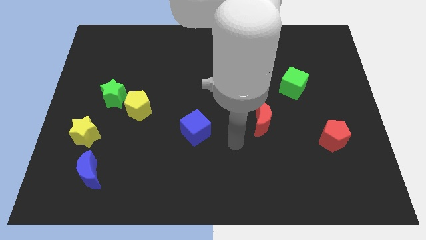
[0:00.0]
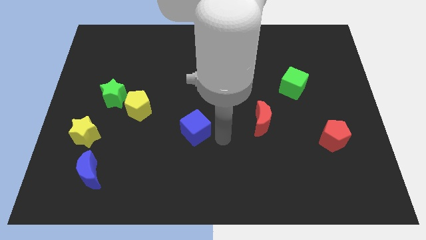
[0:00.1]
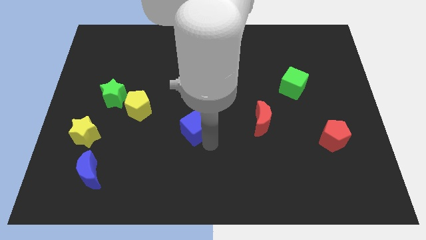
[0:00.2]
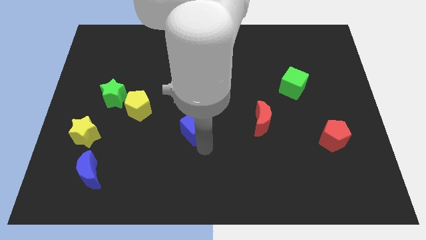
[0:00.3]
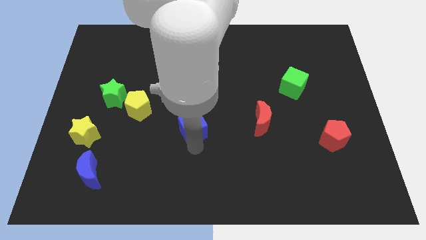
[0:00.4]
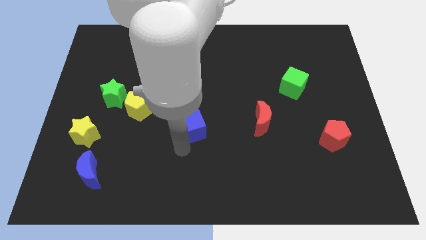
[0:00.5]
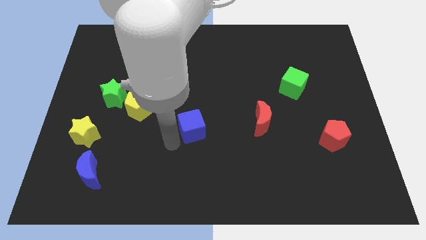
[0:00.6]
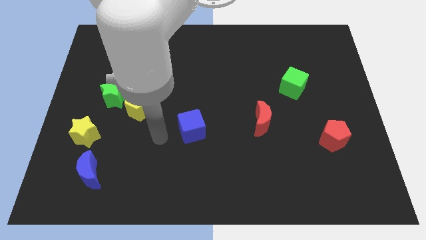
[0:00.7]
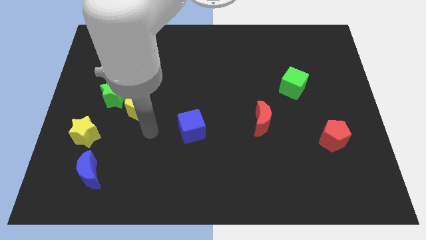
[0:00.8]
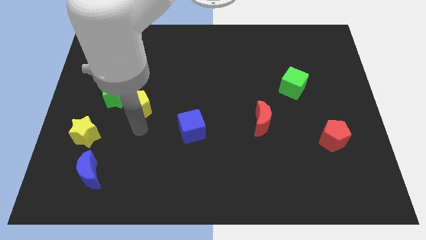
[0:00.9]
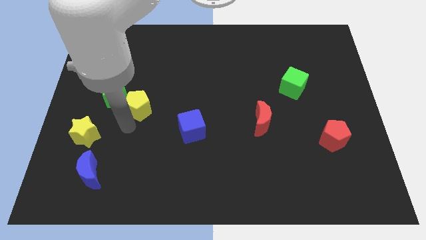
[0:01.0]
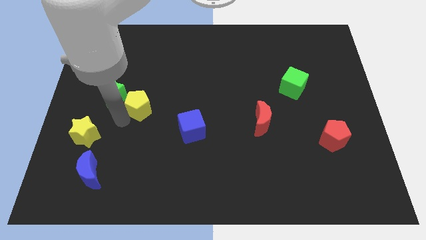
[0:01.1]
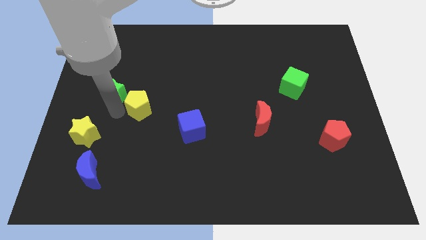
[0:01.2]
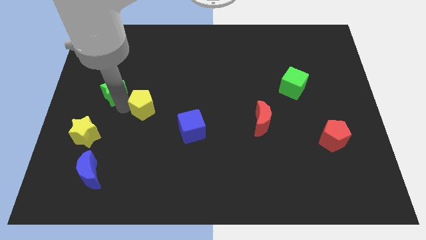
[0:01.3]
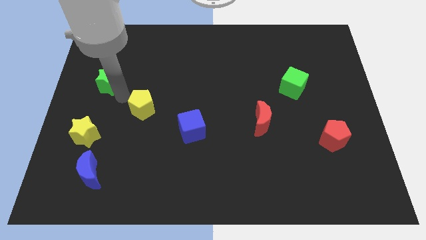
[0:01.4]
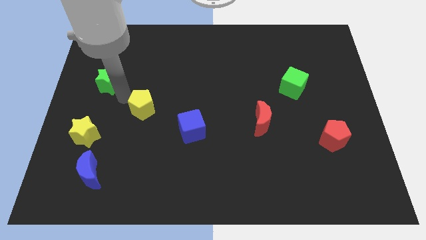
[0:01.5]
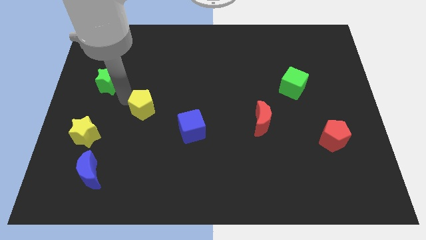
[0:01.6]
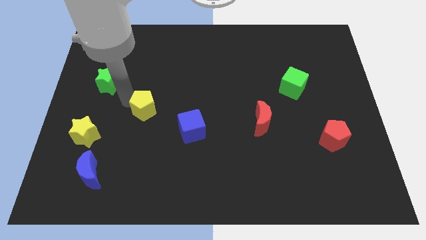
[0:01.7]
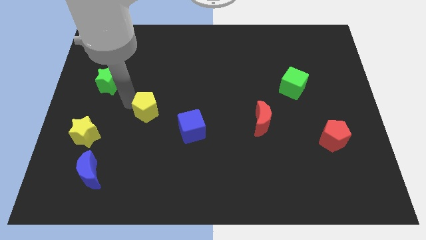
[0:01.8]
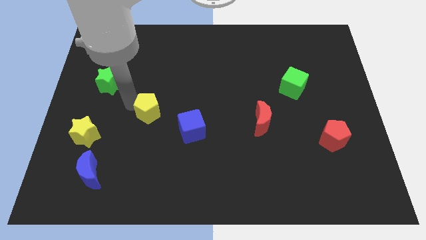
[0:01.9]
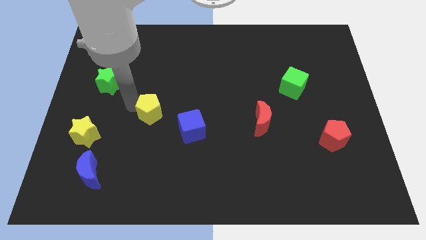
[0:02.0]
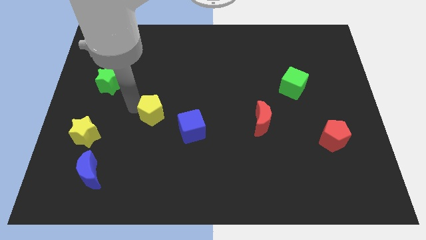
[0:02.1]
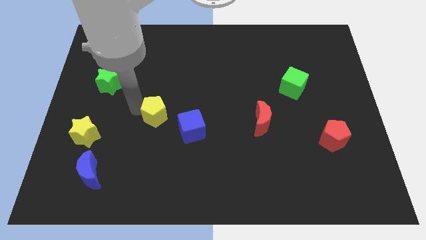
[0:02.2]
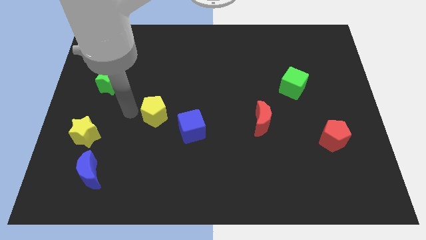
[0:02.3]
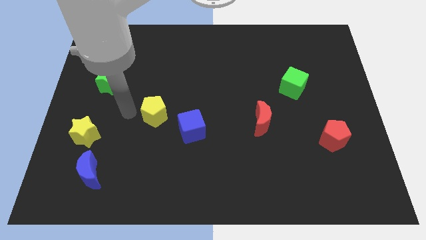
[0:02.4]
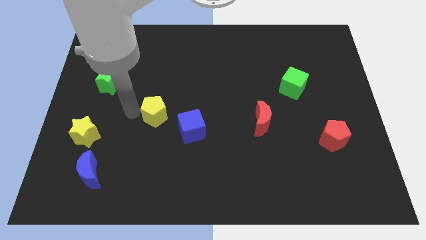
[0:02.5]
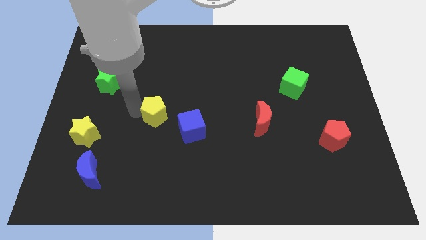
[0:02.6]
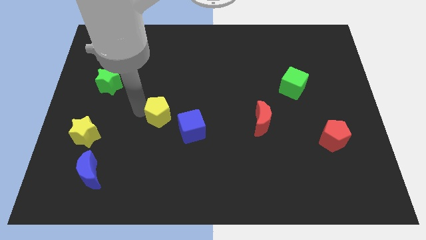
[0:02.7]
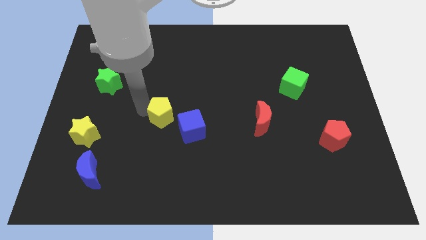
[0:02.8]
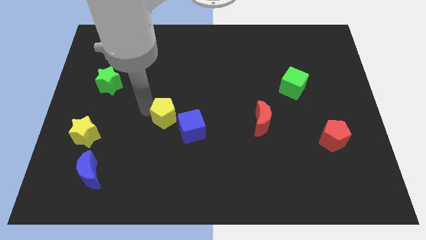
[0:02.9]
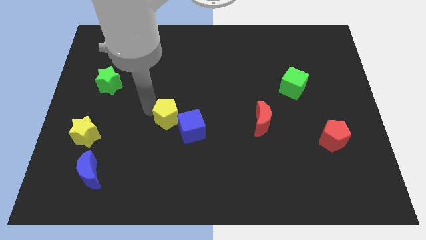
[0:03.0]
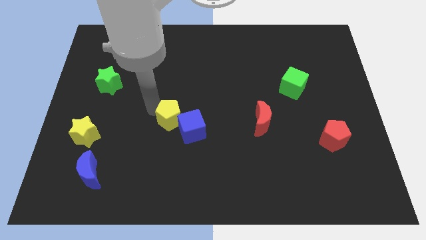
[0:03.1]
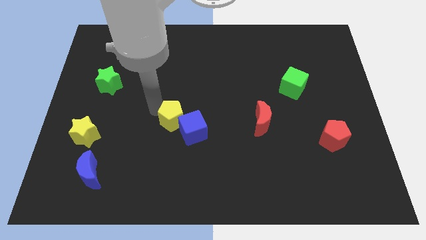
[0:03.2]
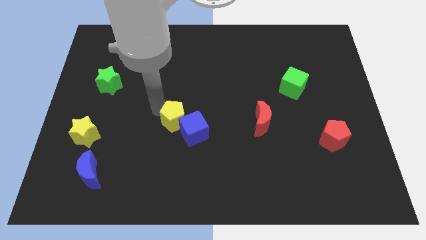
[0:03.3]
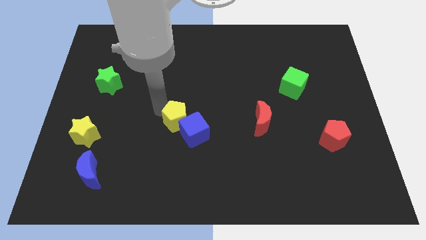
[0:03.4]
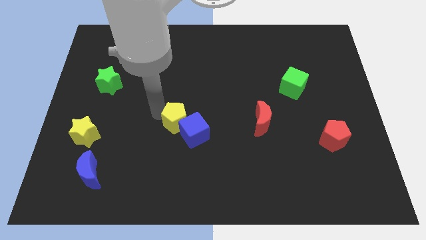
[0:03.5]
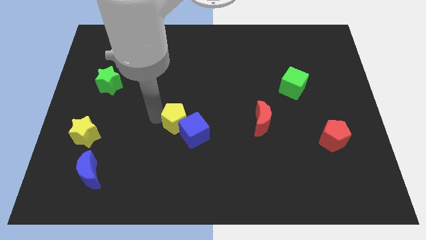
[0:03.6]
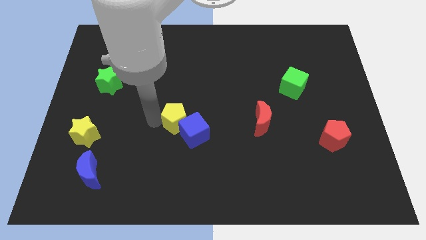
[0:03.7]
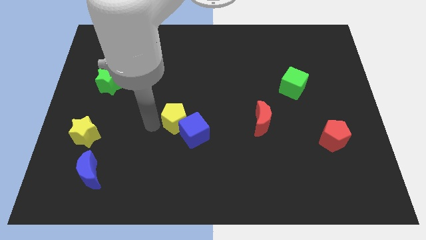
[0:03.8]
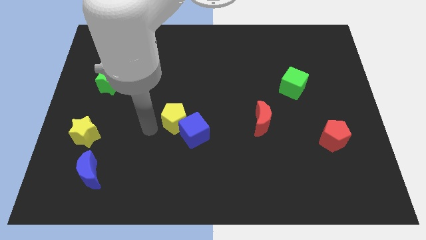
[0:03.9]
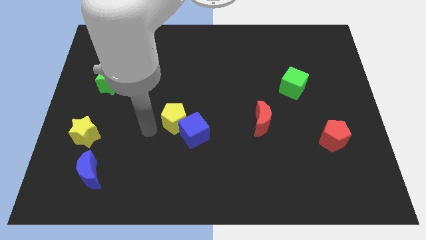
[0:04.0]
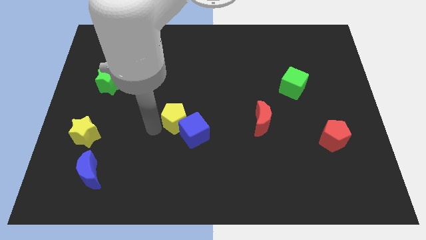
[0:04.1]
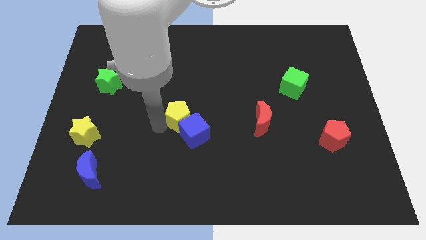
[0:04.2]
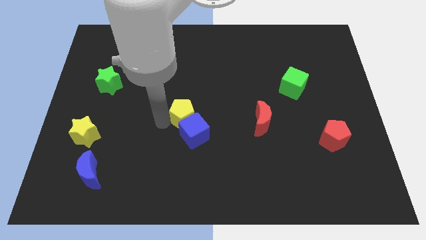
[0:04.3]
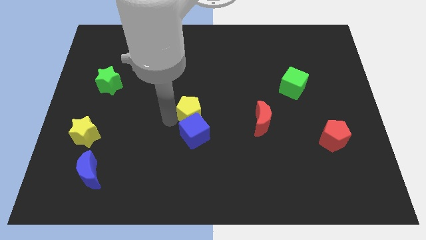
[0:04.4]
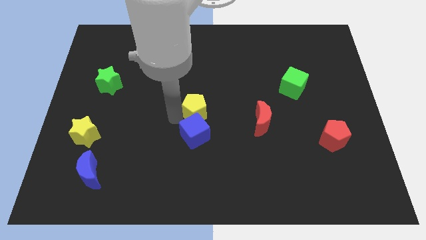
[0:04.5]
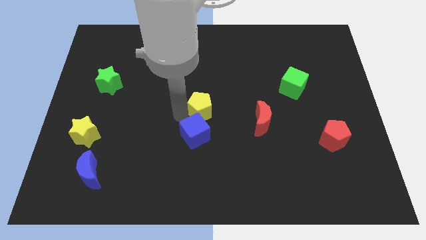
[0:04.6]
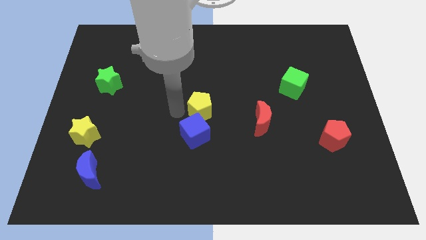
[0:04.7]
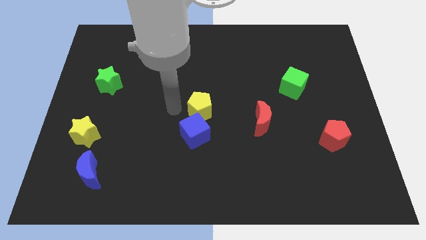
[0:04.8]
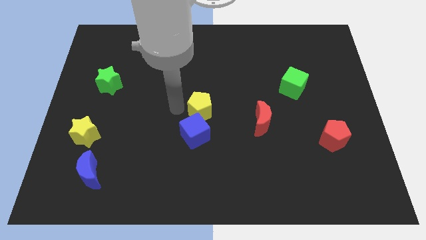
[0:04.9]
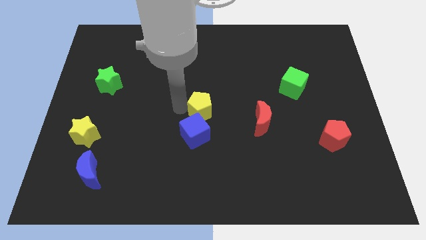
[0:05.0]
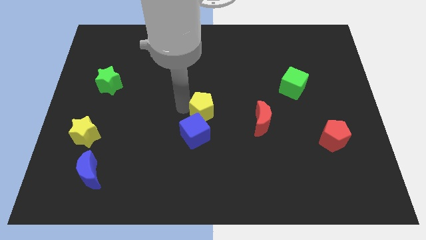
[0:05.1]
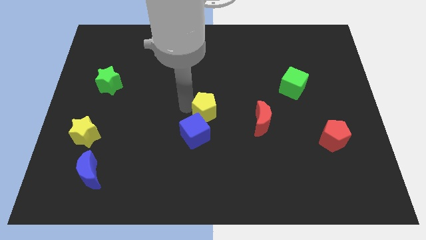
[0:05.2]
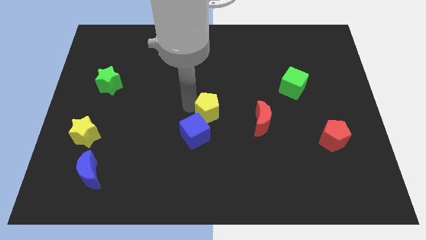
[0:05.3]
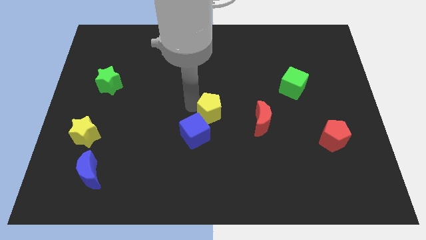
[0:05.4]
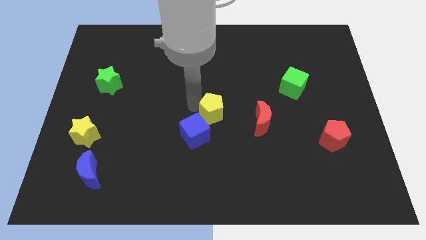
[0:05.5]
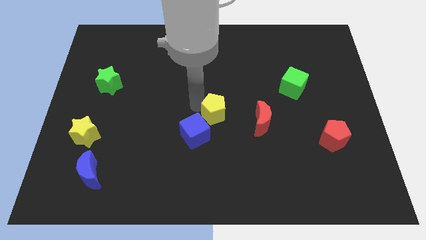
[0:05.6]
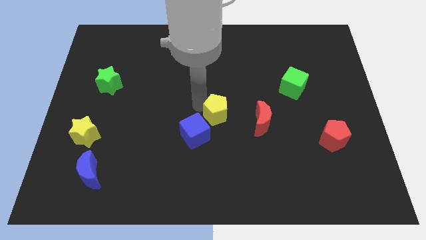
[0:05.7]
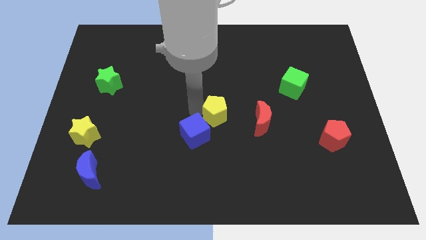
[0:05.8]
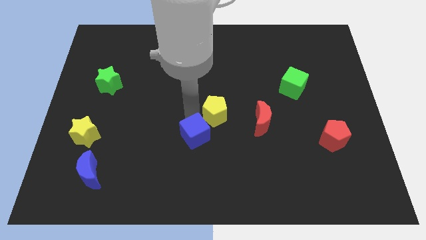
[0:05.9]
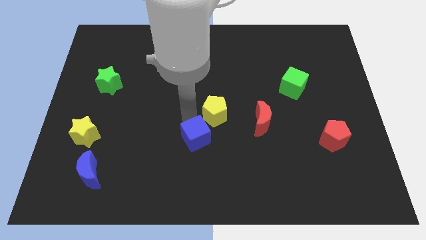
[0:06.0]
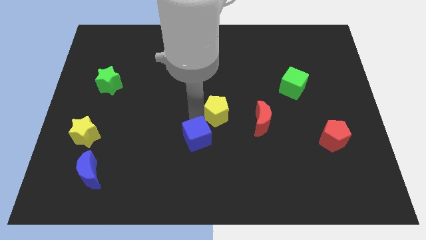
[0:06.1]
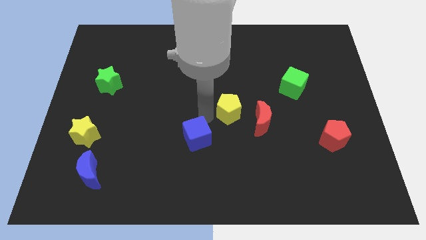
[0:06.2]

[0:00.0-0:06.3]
slide the yellow pentagon right

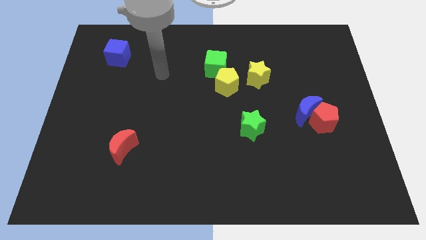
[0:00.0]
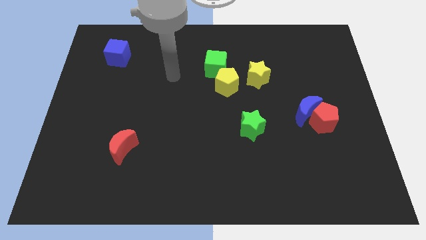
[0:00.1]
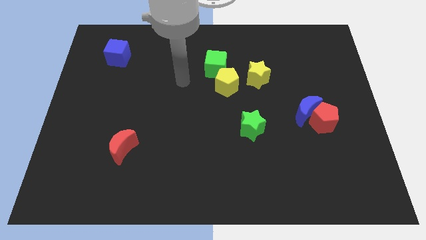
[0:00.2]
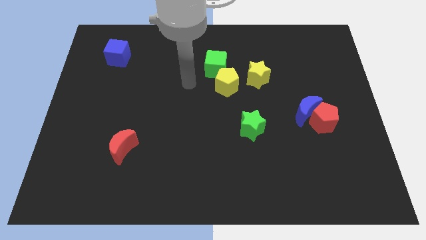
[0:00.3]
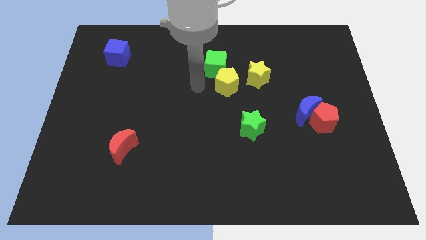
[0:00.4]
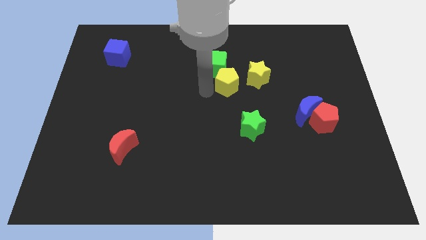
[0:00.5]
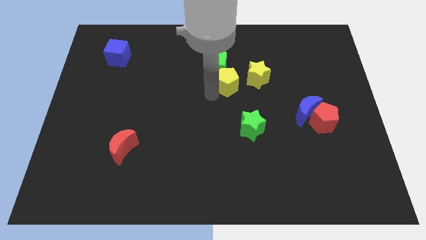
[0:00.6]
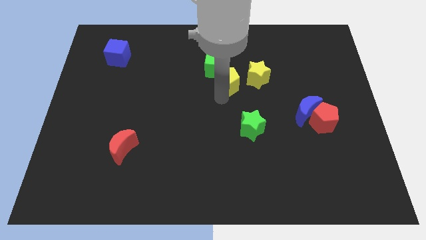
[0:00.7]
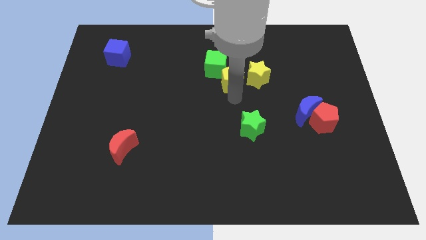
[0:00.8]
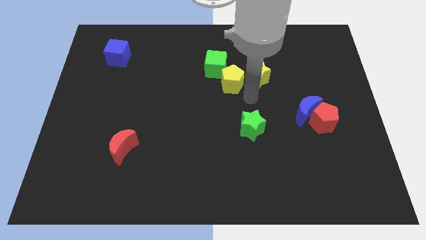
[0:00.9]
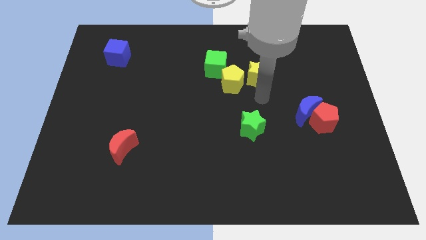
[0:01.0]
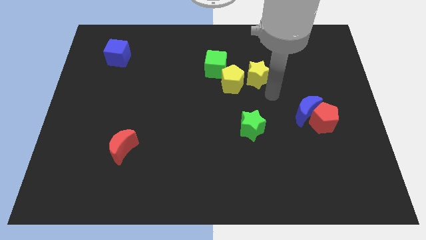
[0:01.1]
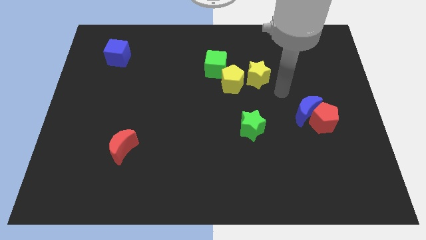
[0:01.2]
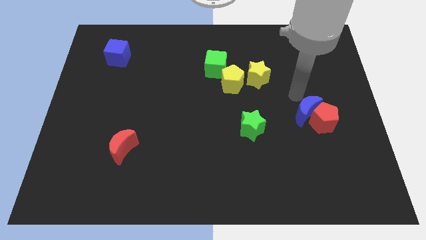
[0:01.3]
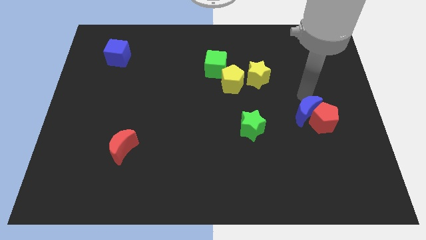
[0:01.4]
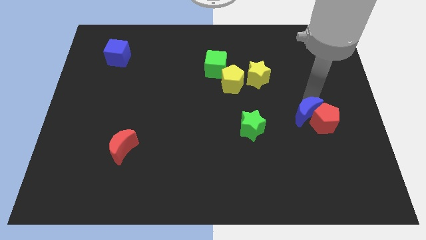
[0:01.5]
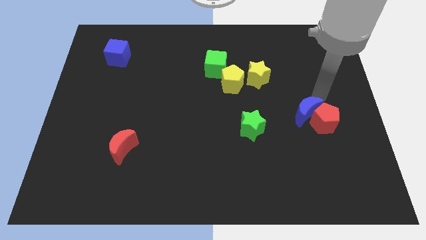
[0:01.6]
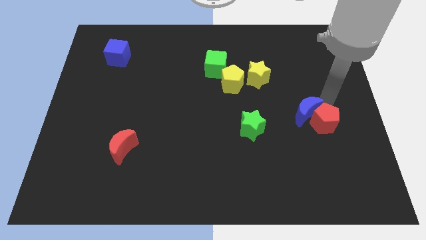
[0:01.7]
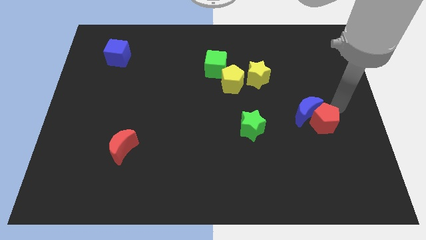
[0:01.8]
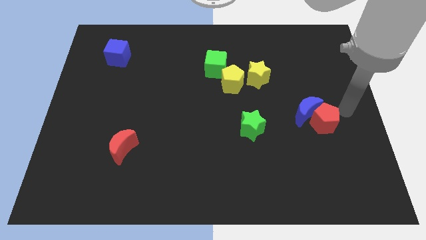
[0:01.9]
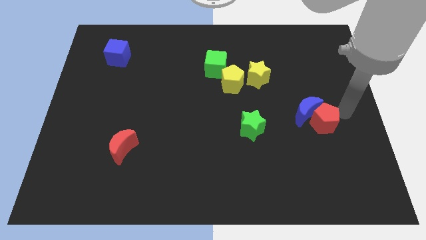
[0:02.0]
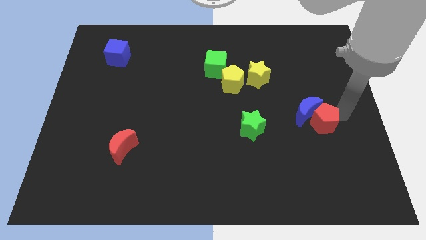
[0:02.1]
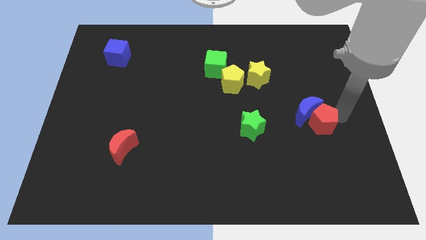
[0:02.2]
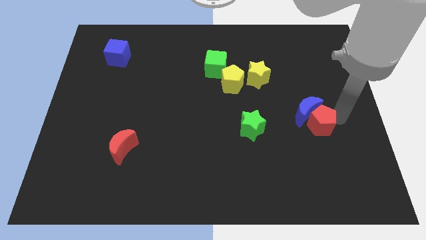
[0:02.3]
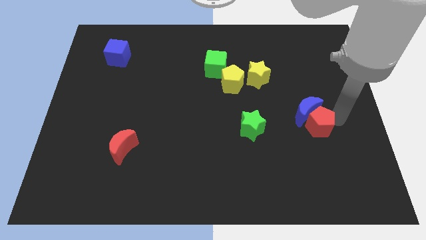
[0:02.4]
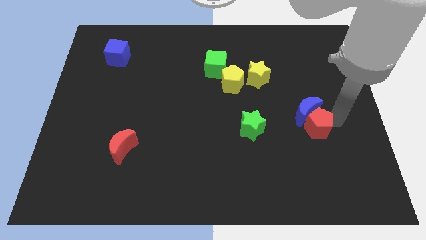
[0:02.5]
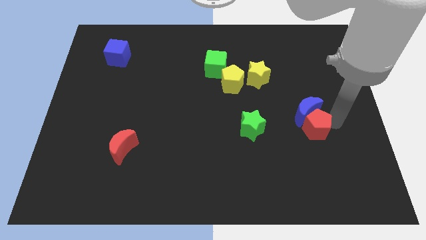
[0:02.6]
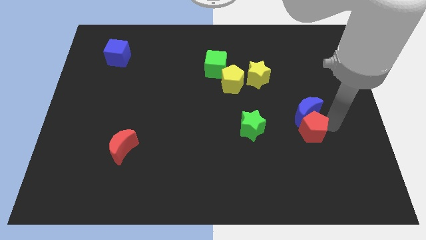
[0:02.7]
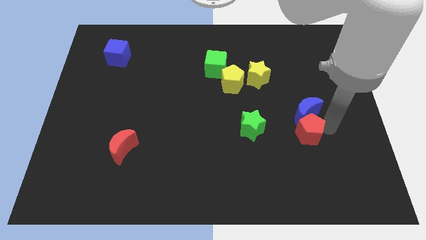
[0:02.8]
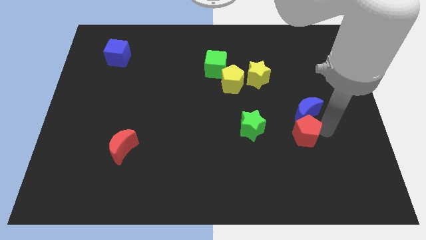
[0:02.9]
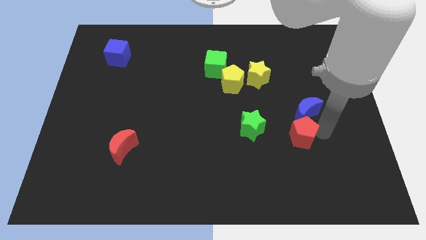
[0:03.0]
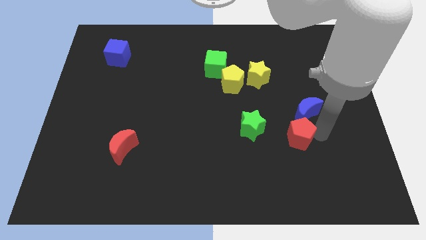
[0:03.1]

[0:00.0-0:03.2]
slightly move the red pentagon diagonally downwards and left
